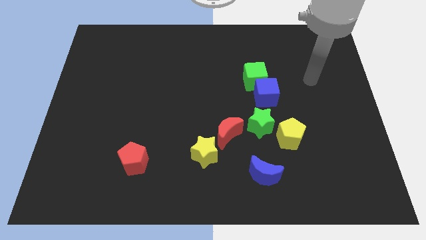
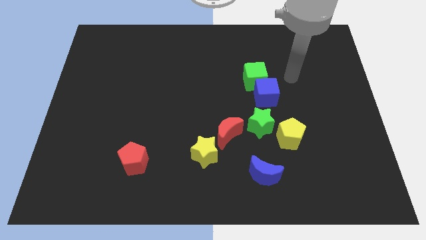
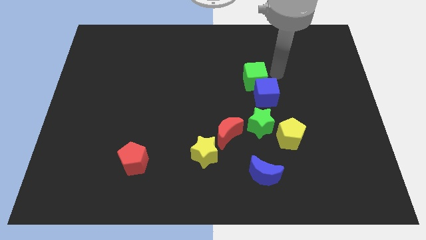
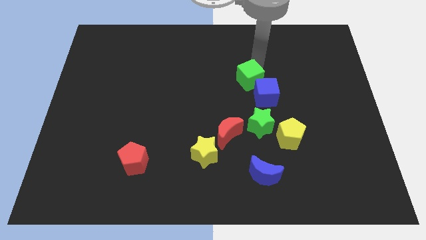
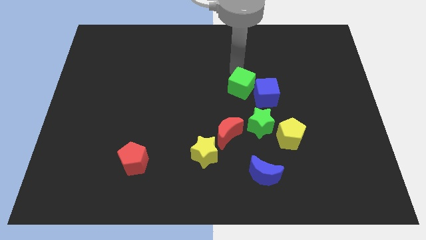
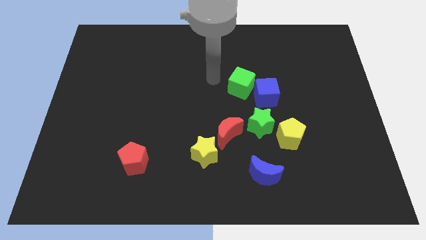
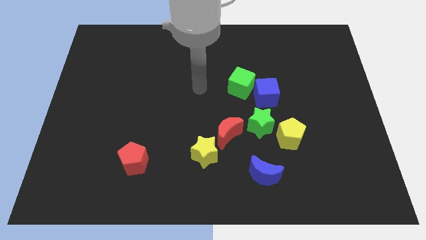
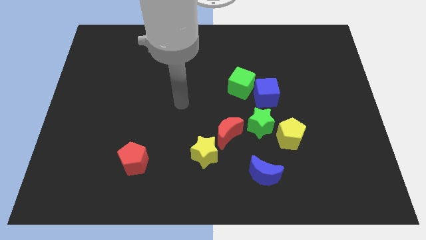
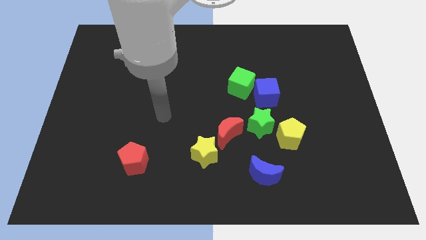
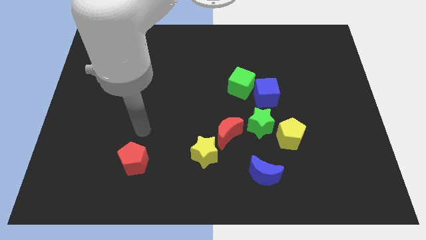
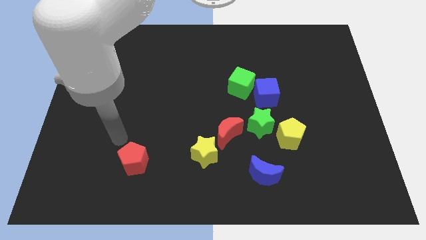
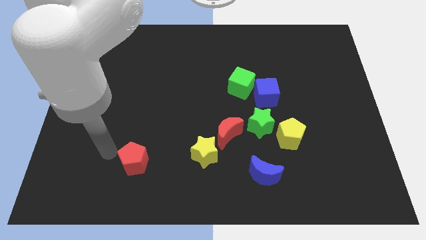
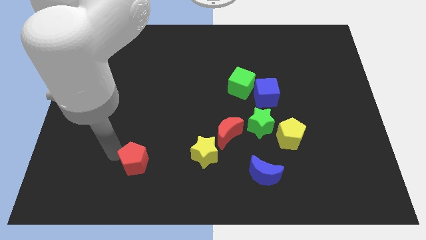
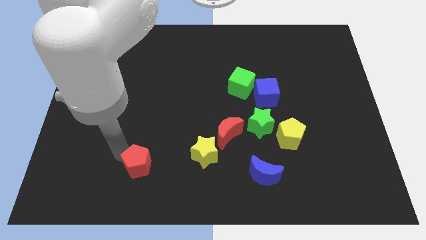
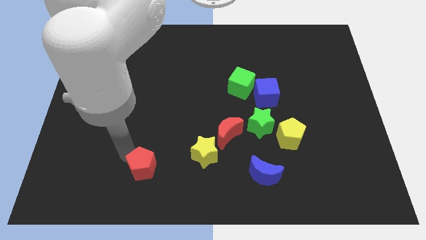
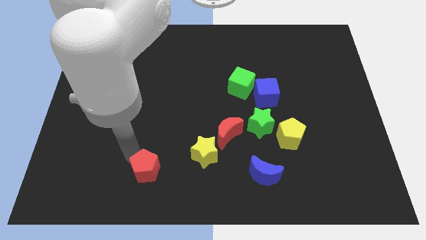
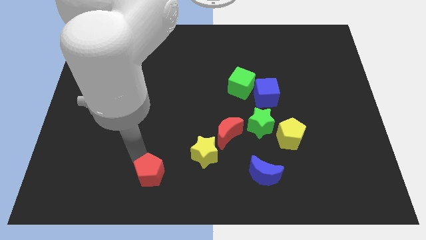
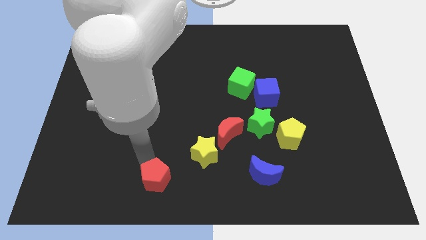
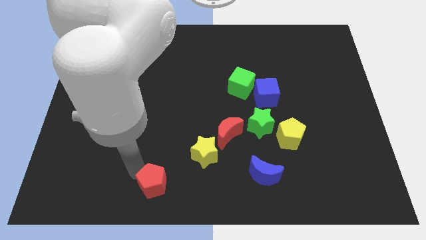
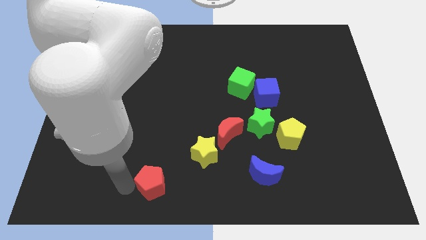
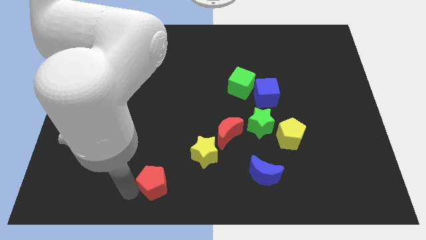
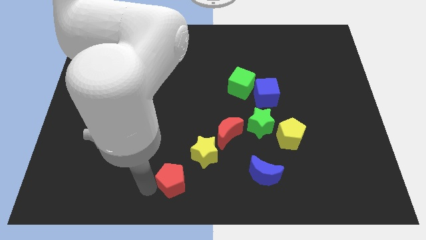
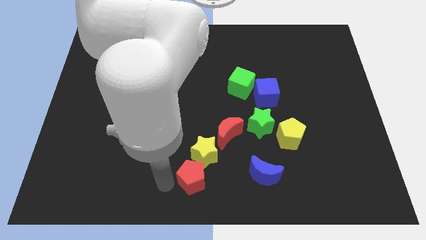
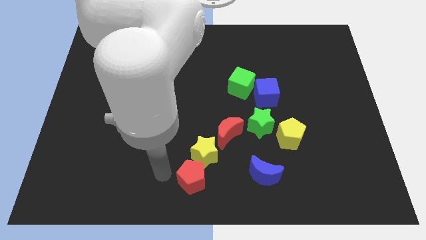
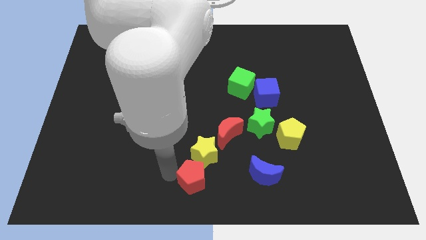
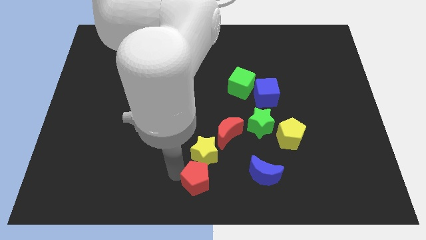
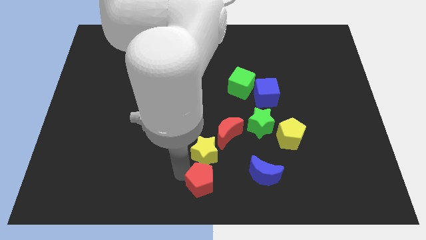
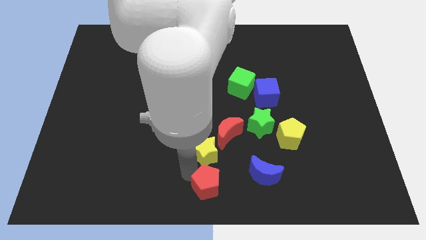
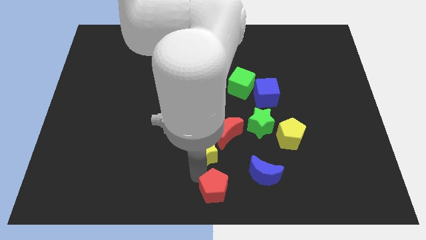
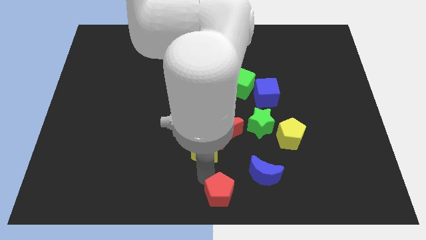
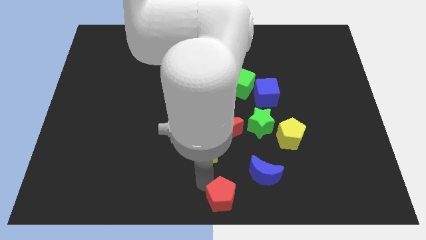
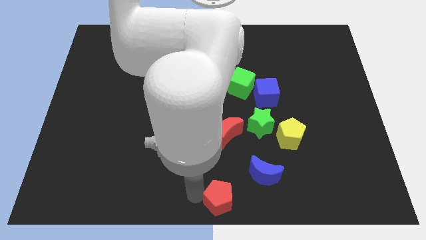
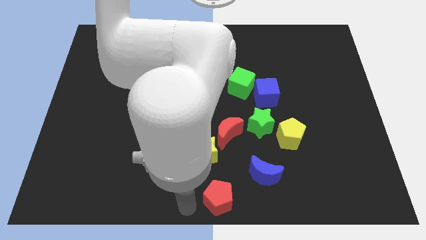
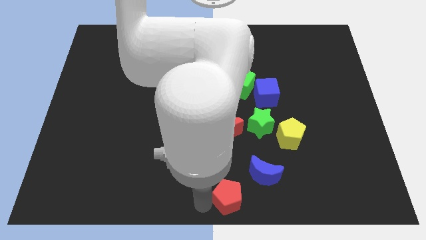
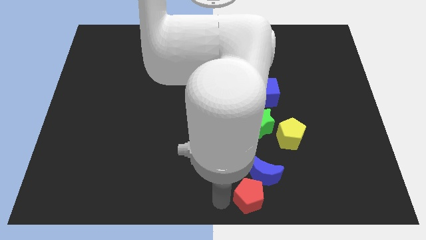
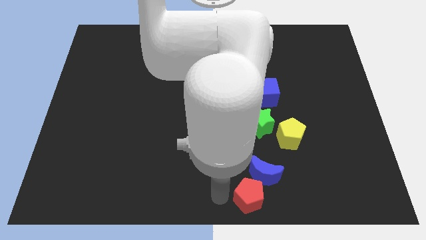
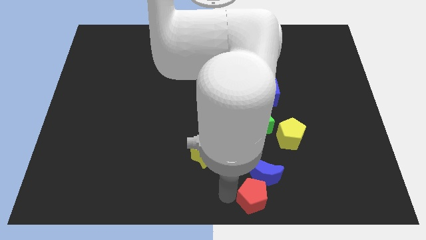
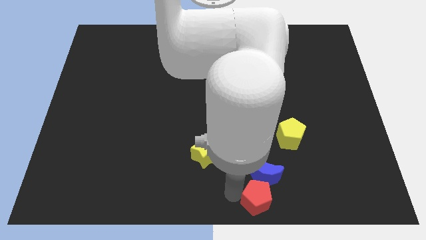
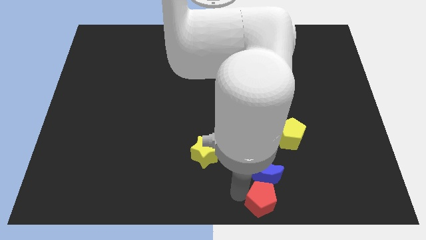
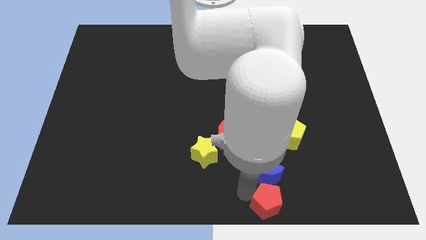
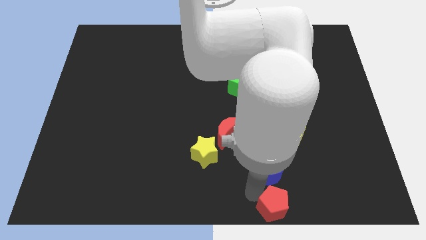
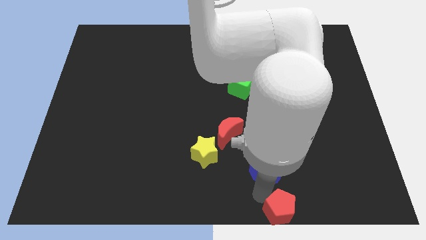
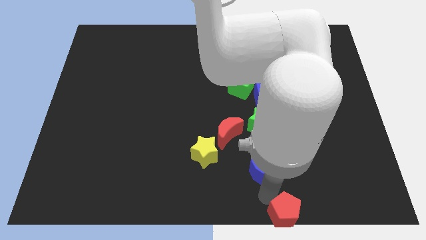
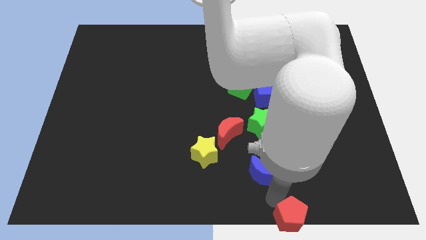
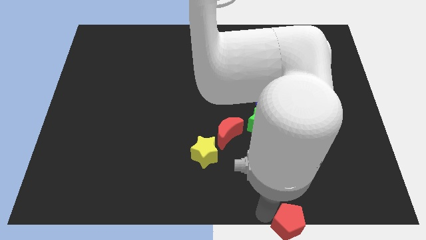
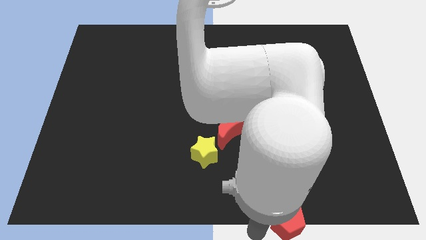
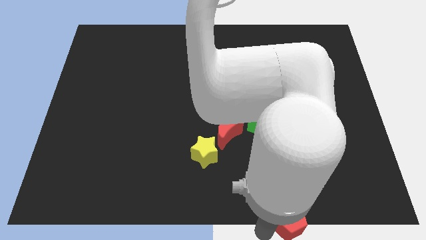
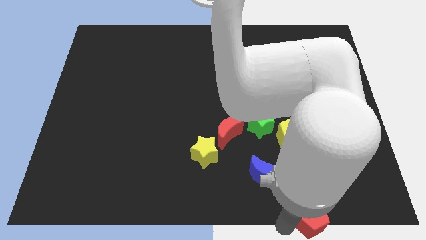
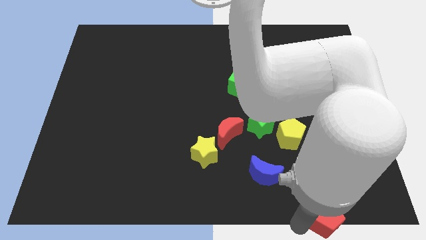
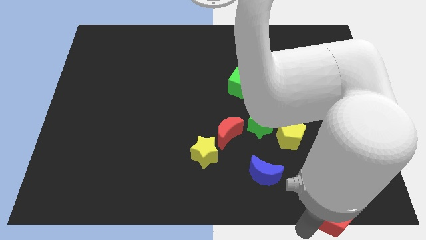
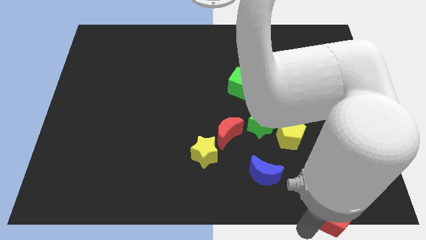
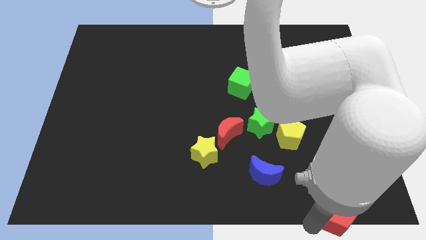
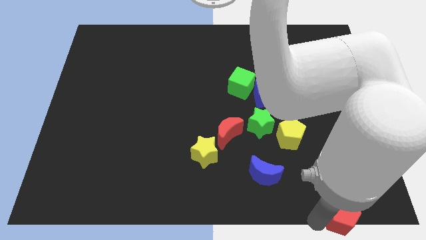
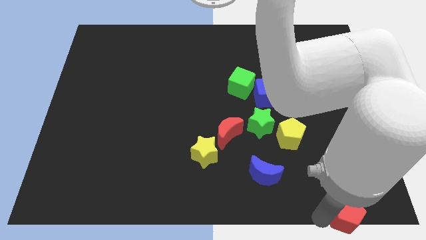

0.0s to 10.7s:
put the red pentagon to the bottom right corner

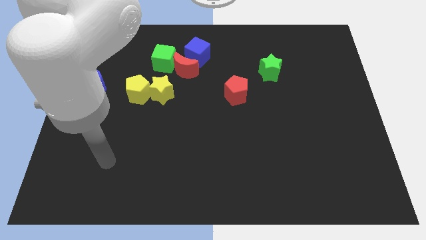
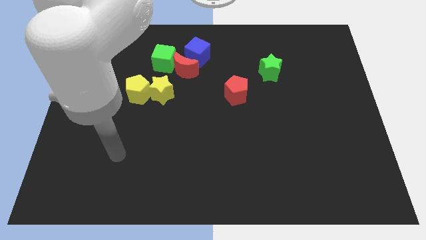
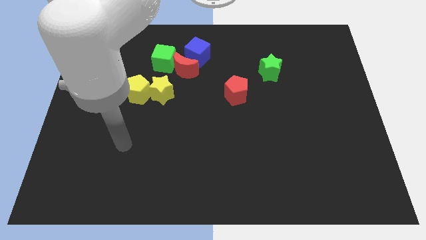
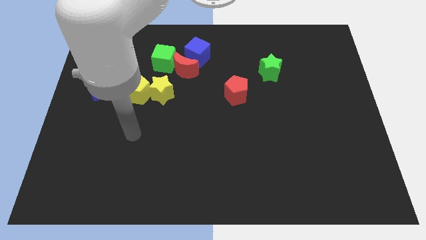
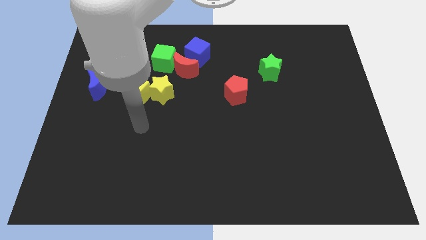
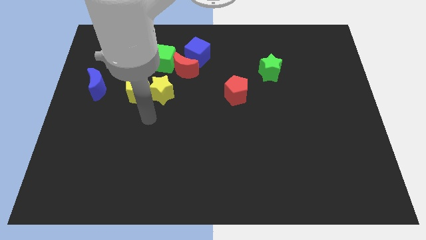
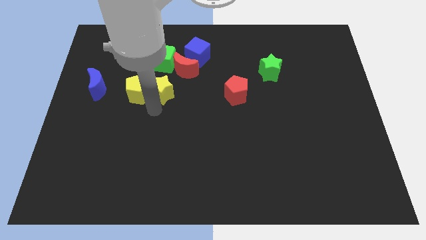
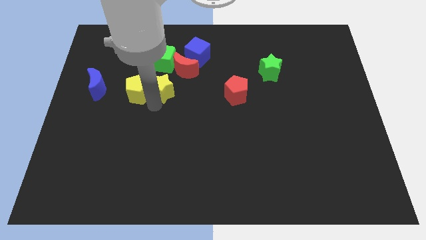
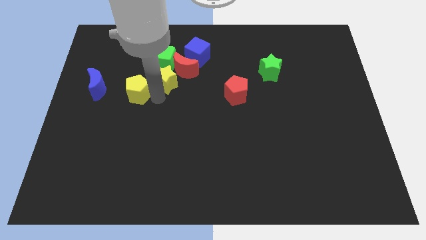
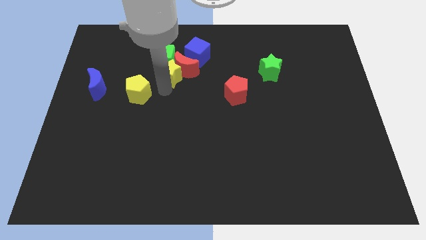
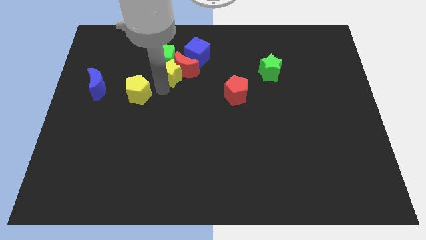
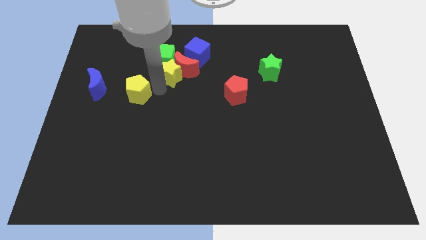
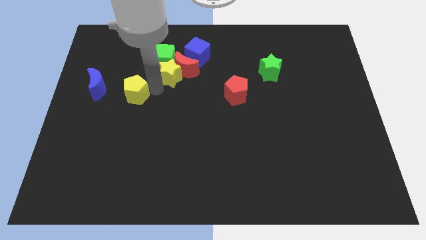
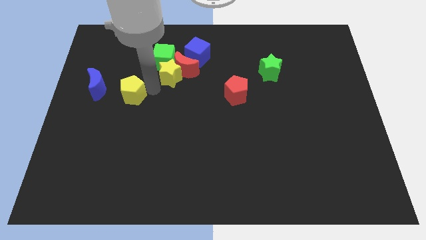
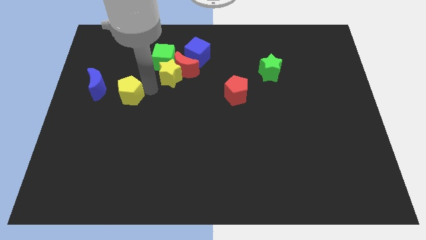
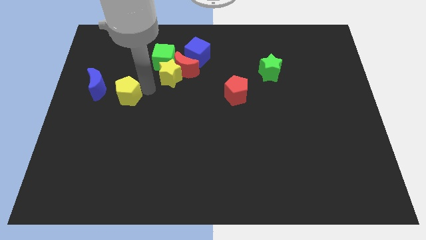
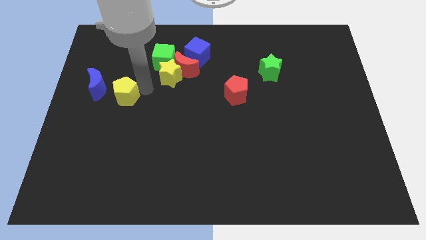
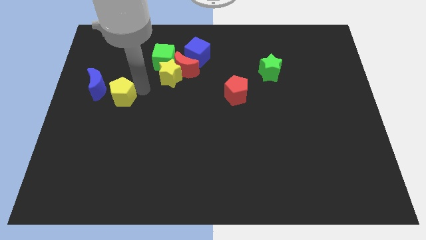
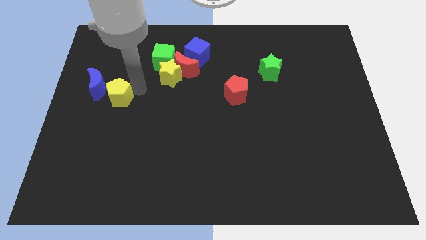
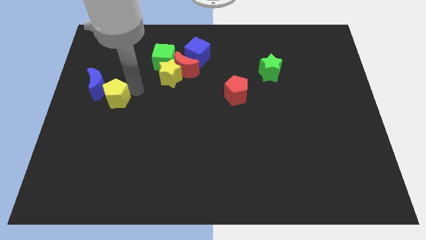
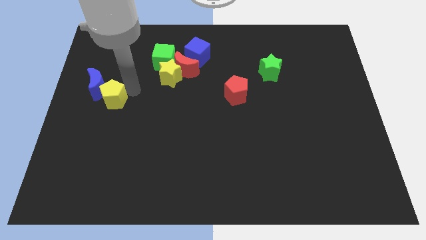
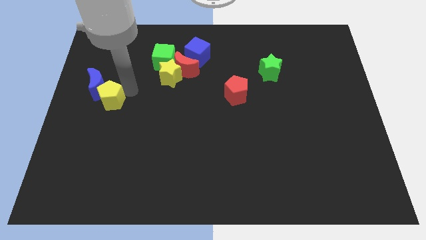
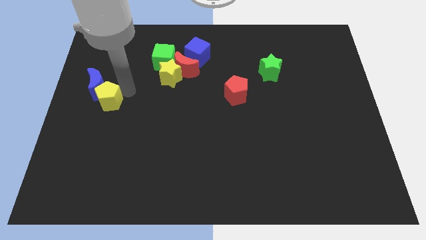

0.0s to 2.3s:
push the yellow pentagon to the center left
